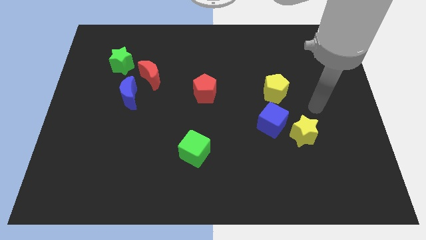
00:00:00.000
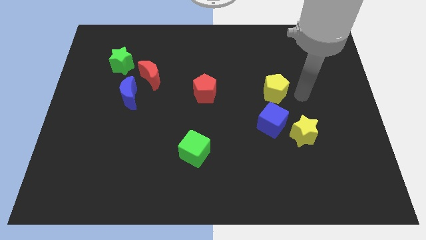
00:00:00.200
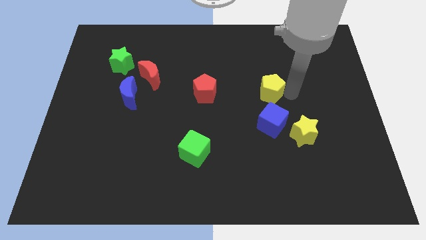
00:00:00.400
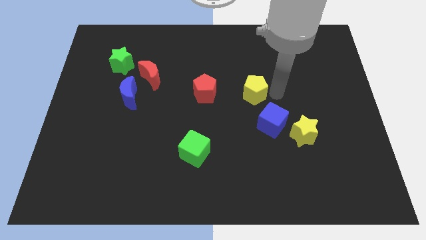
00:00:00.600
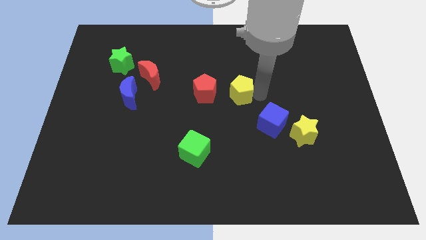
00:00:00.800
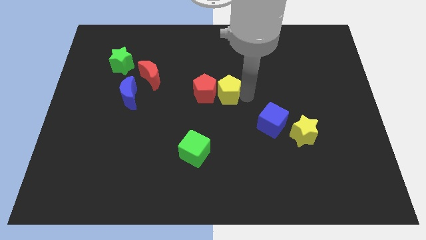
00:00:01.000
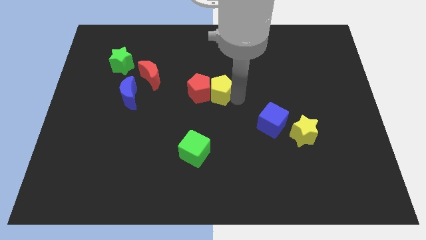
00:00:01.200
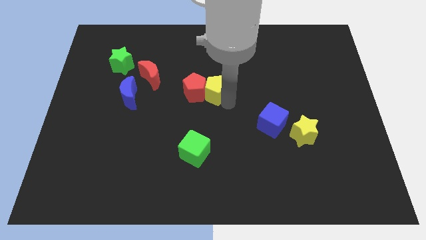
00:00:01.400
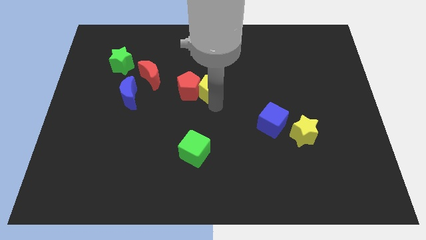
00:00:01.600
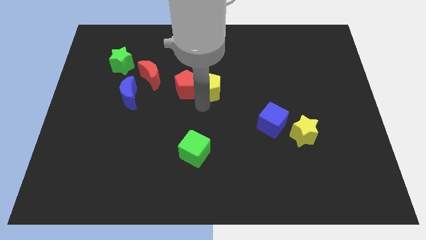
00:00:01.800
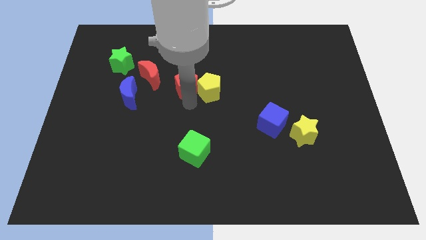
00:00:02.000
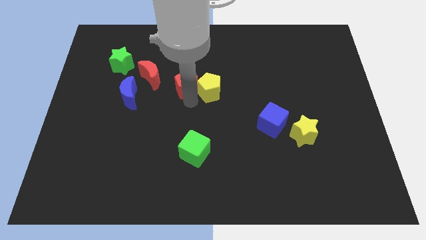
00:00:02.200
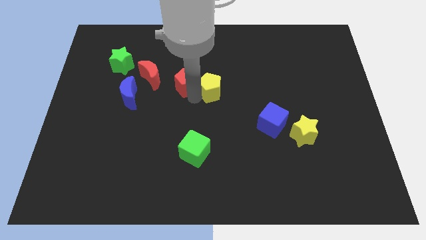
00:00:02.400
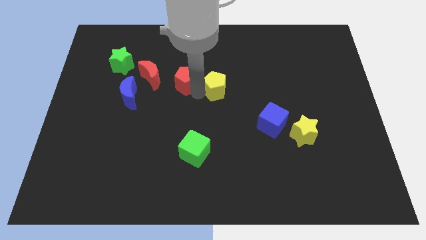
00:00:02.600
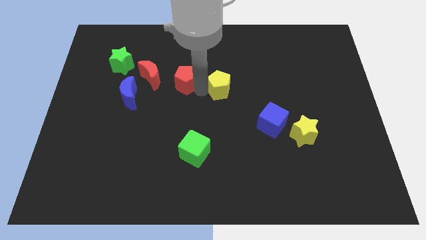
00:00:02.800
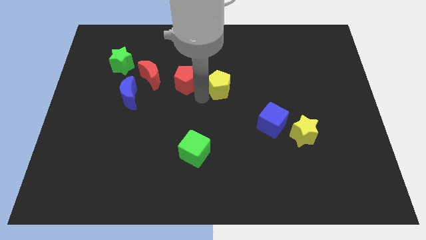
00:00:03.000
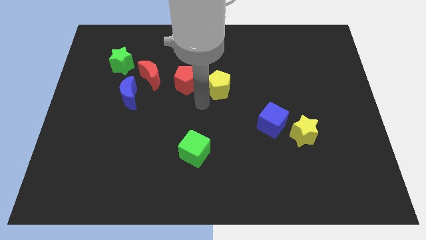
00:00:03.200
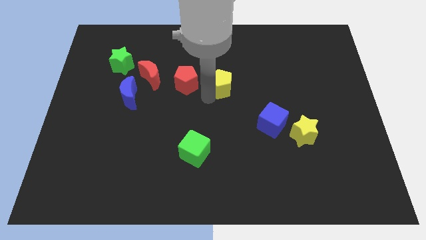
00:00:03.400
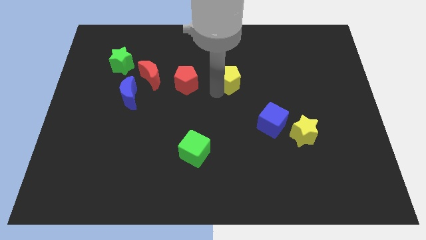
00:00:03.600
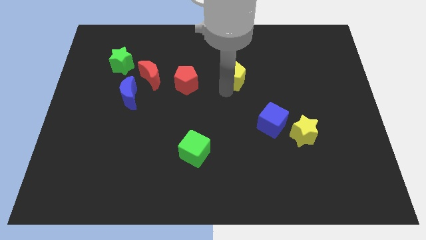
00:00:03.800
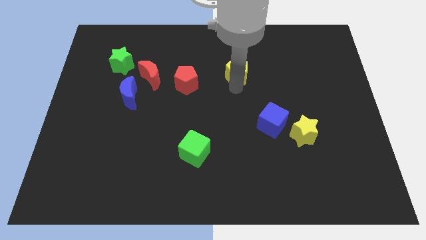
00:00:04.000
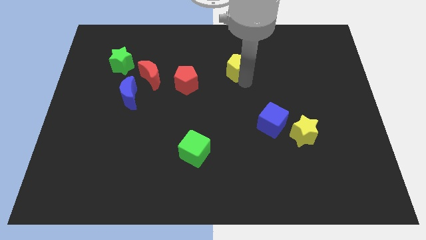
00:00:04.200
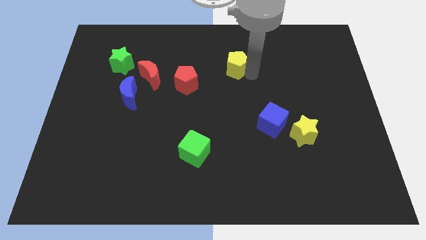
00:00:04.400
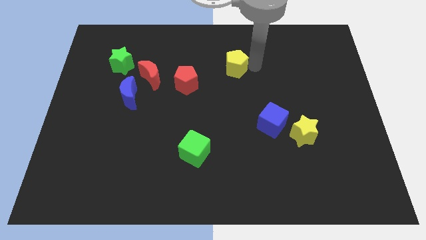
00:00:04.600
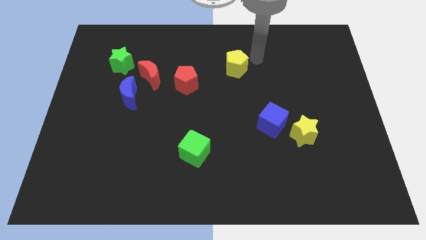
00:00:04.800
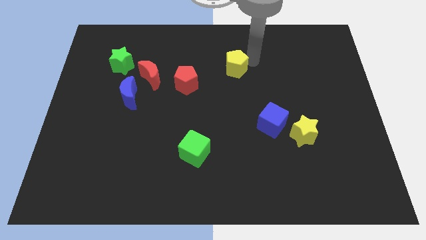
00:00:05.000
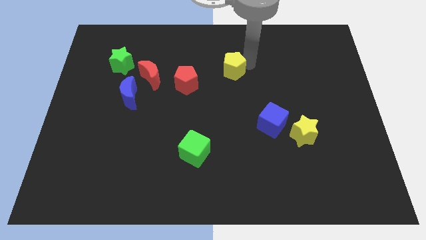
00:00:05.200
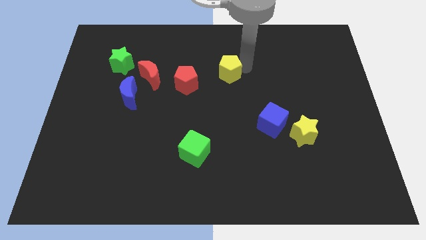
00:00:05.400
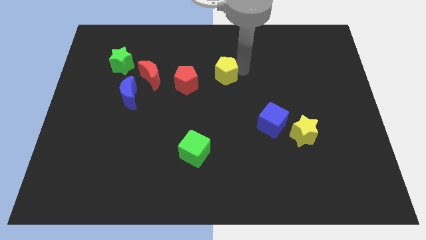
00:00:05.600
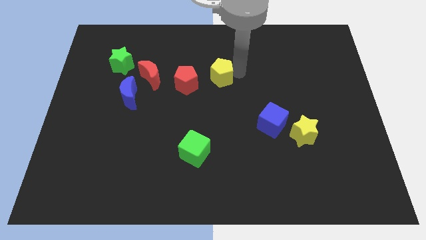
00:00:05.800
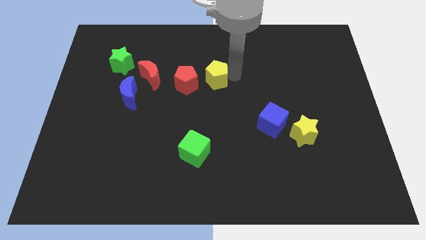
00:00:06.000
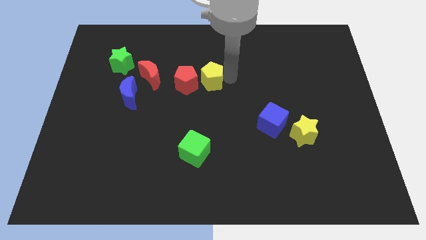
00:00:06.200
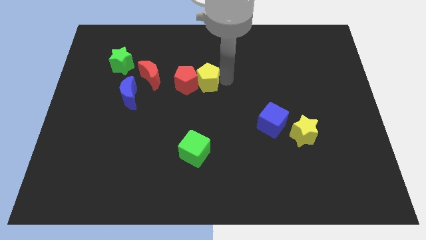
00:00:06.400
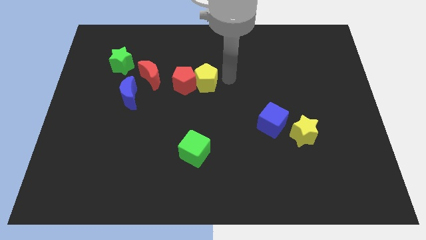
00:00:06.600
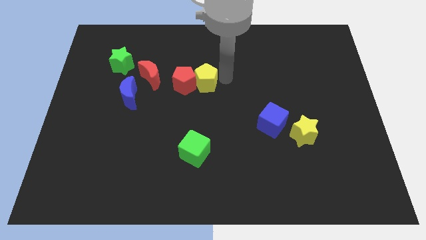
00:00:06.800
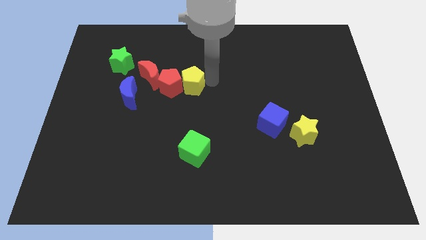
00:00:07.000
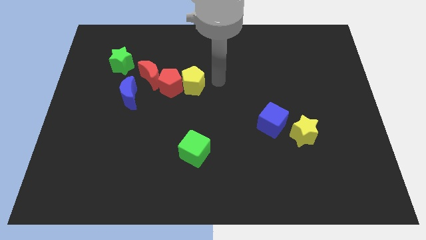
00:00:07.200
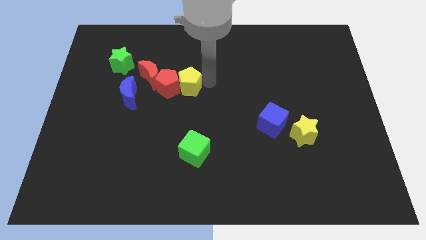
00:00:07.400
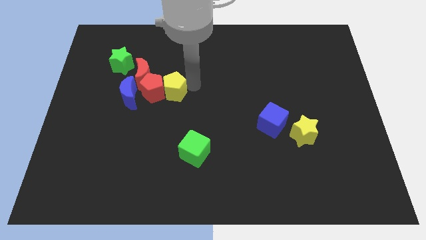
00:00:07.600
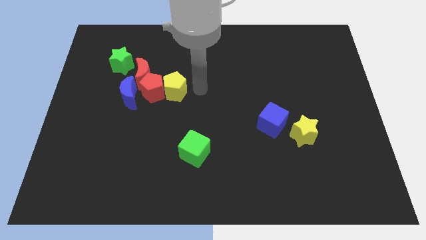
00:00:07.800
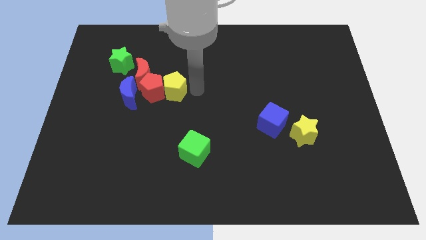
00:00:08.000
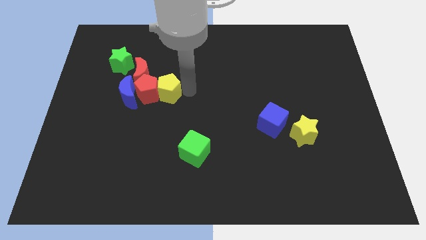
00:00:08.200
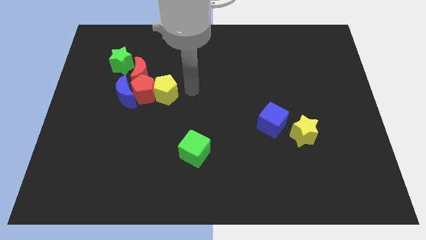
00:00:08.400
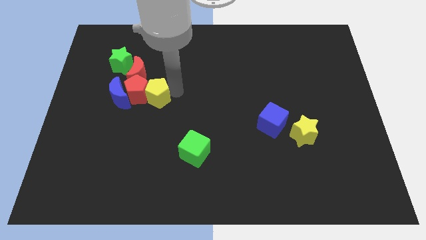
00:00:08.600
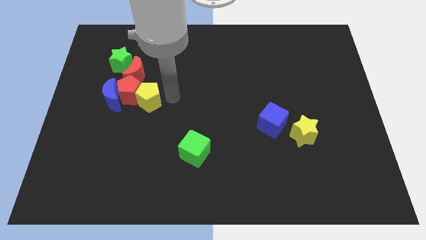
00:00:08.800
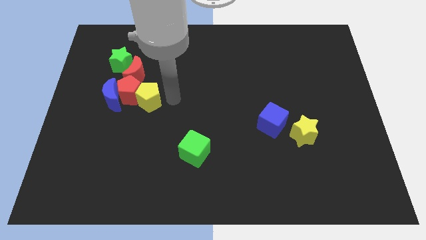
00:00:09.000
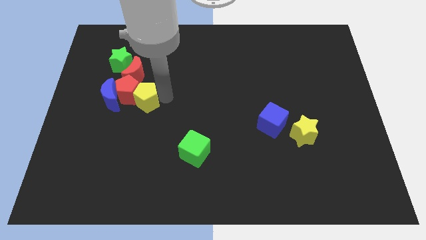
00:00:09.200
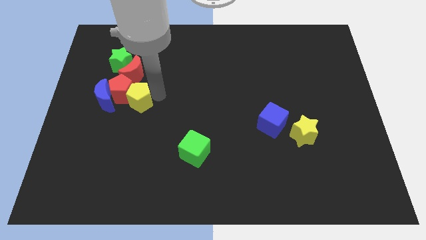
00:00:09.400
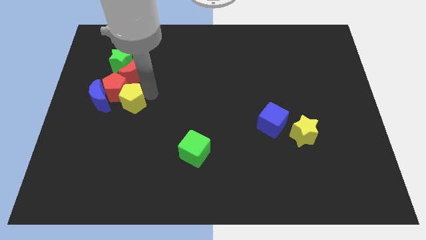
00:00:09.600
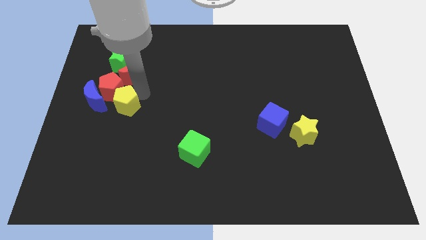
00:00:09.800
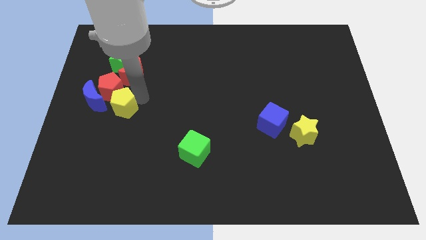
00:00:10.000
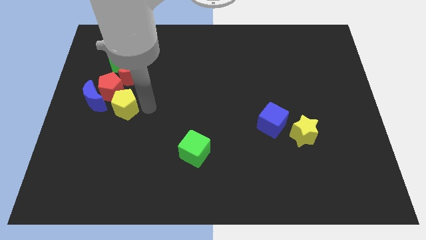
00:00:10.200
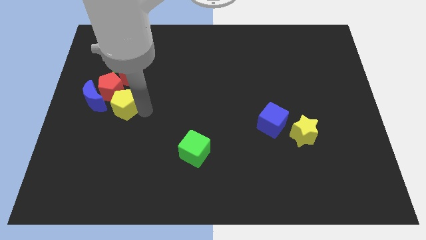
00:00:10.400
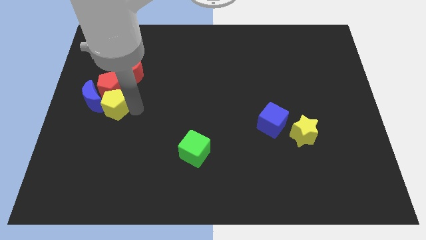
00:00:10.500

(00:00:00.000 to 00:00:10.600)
slide the yellow pentagon to the blue moon

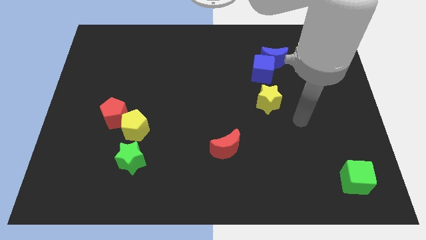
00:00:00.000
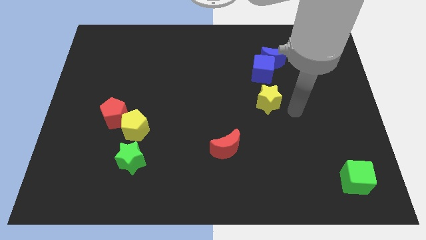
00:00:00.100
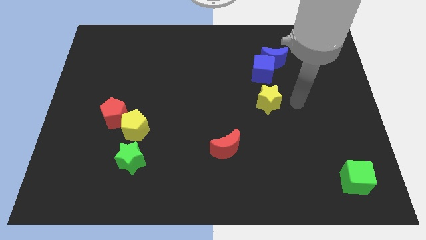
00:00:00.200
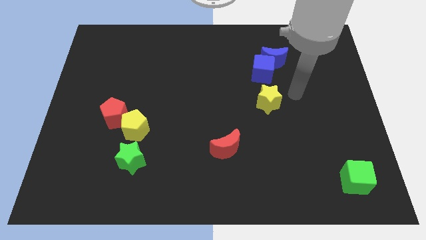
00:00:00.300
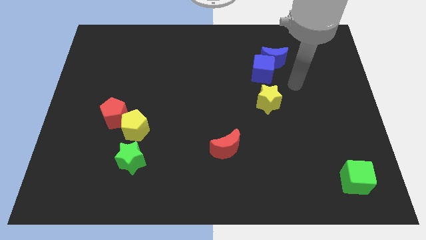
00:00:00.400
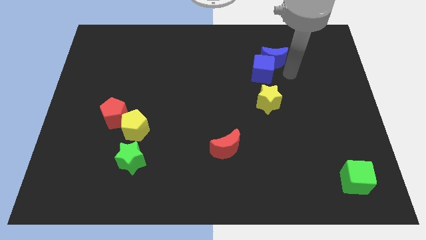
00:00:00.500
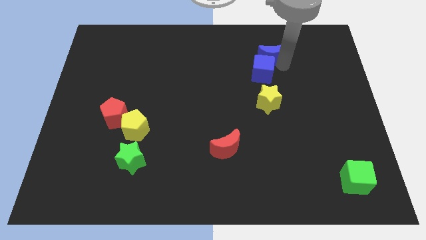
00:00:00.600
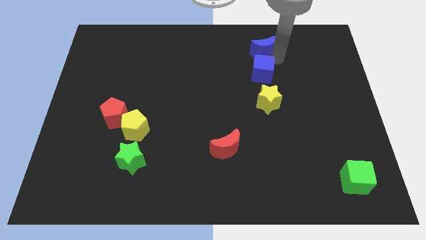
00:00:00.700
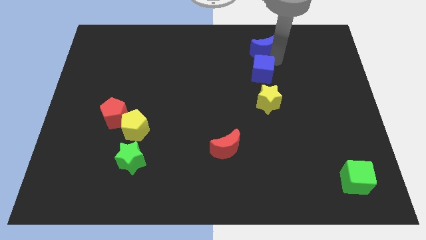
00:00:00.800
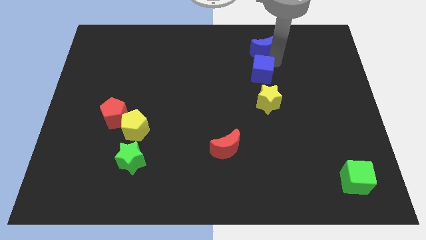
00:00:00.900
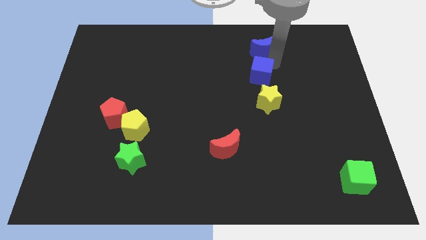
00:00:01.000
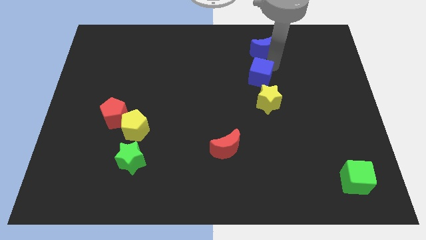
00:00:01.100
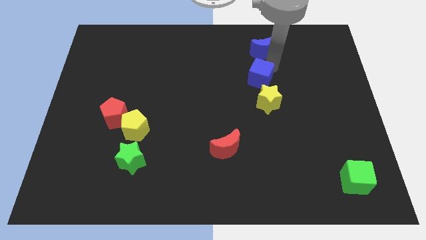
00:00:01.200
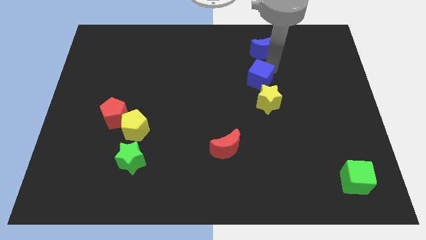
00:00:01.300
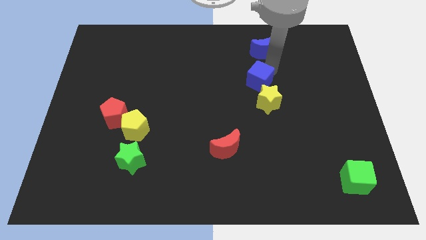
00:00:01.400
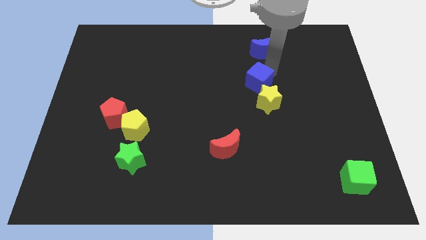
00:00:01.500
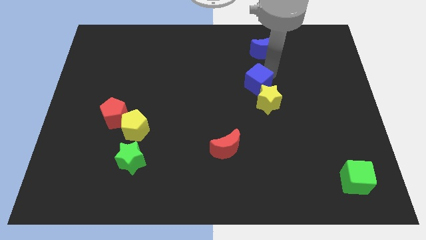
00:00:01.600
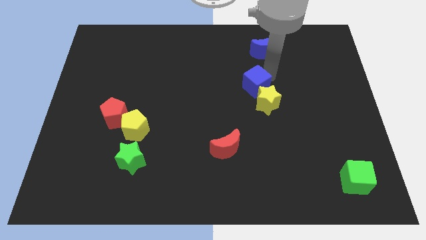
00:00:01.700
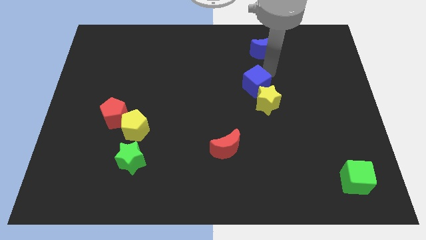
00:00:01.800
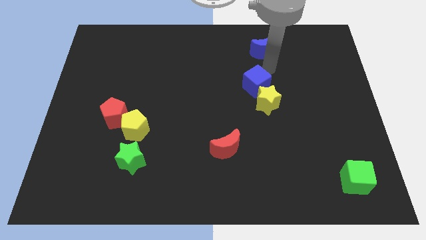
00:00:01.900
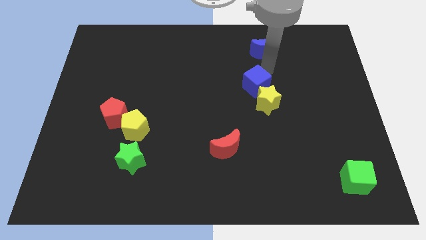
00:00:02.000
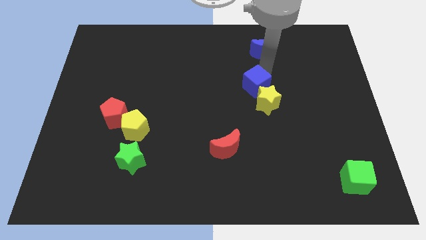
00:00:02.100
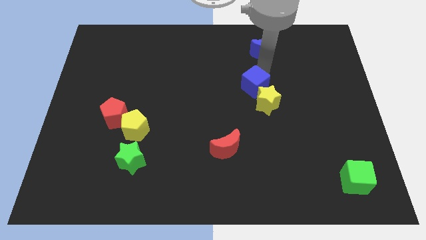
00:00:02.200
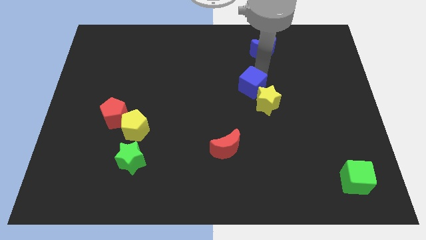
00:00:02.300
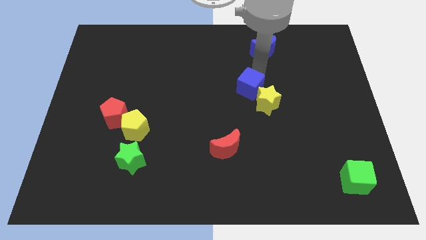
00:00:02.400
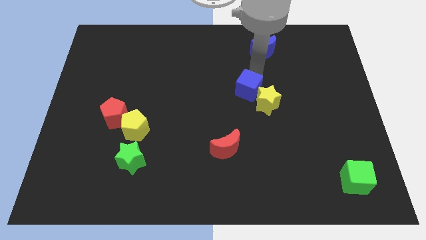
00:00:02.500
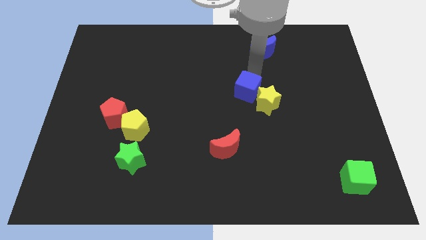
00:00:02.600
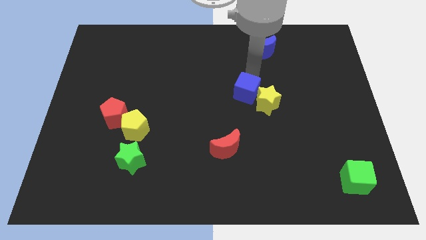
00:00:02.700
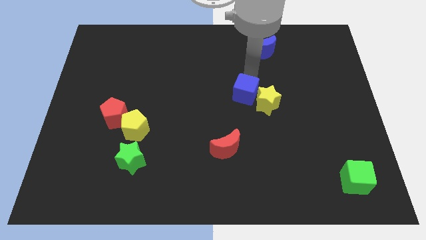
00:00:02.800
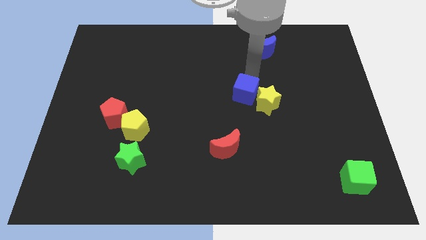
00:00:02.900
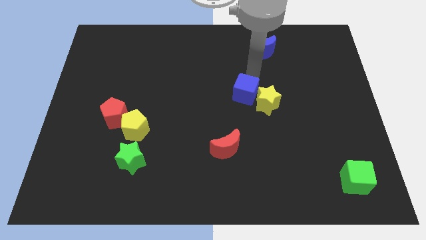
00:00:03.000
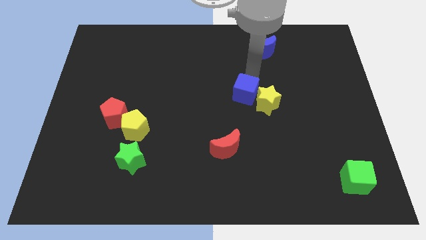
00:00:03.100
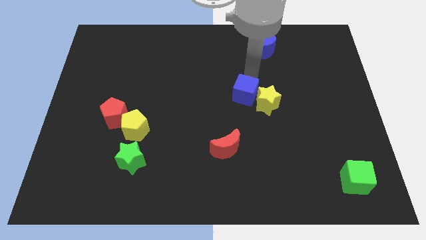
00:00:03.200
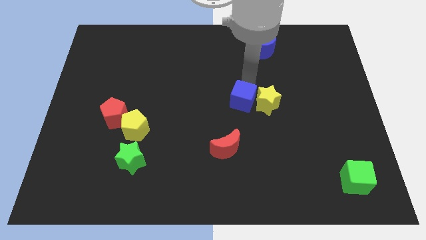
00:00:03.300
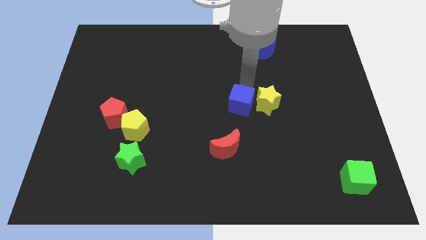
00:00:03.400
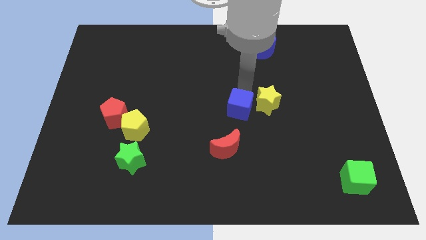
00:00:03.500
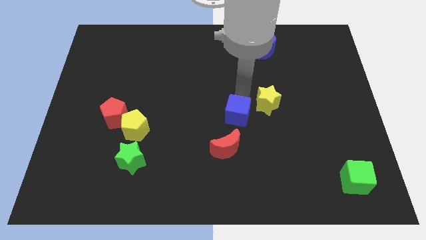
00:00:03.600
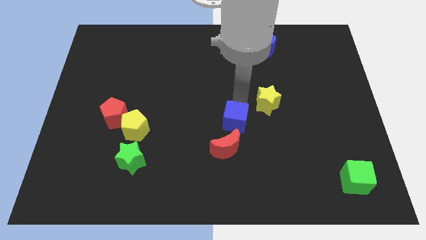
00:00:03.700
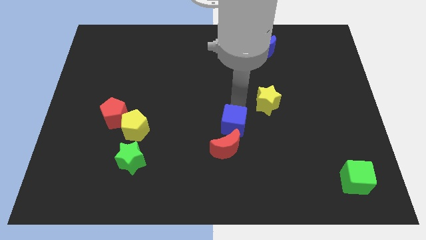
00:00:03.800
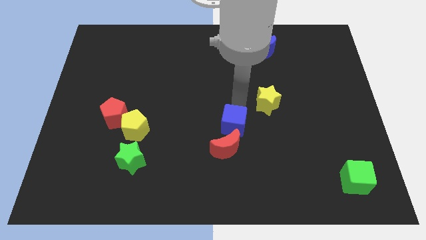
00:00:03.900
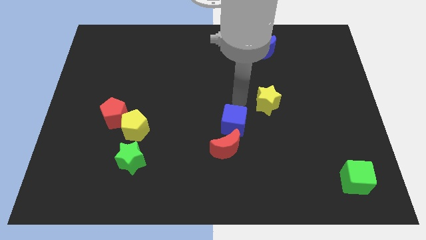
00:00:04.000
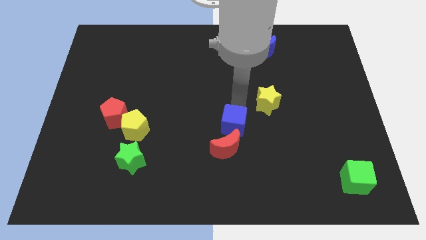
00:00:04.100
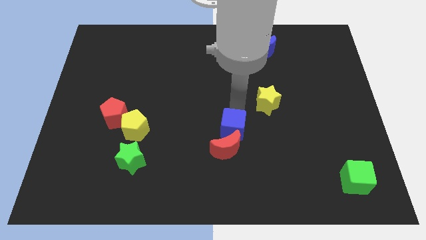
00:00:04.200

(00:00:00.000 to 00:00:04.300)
put the blue cube close to the red moon
